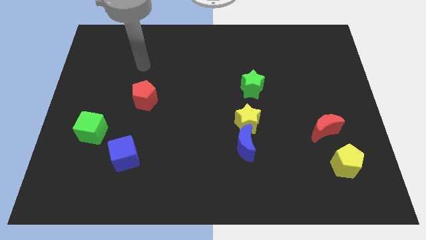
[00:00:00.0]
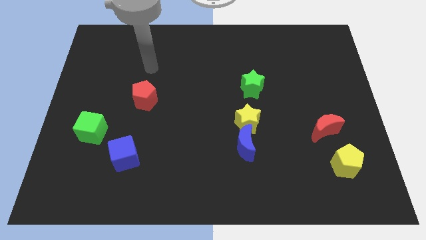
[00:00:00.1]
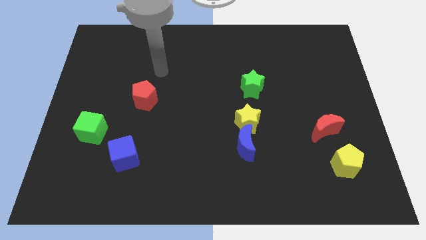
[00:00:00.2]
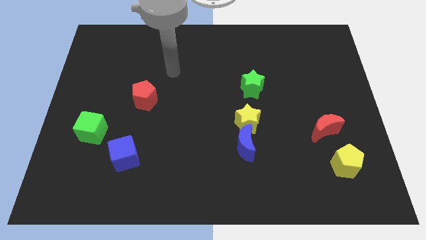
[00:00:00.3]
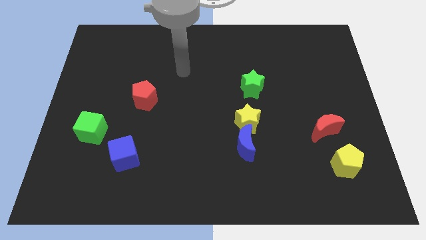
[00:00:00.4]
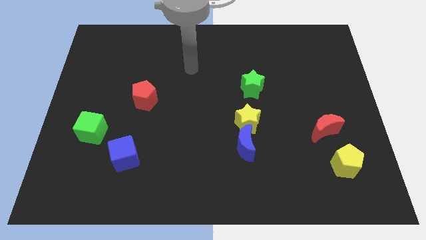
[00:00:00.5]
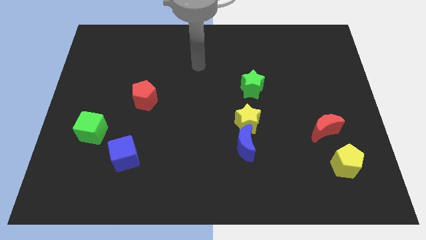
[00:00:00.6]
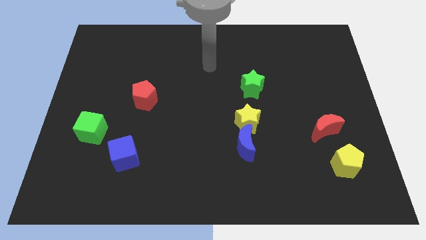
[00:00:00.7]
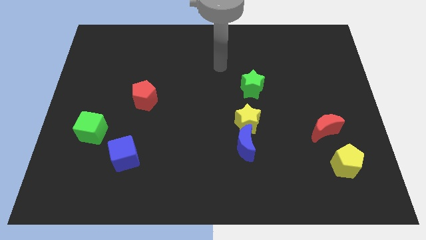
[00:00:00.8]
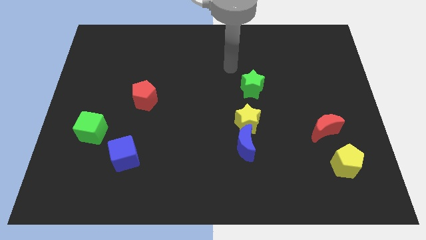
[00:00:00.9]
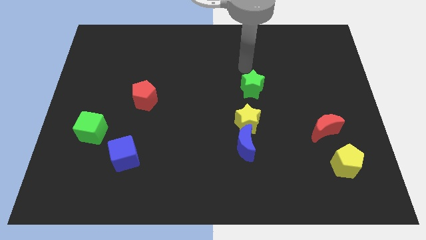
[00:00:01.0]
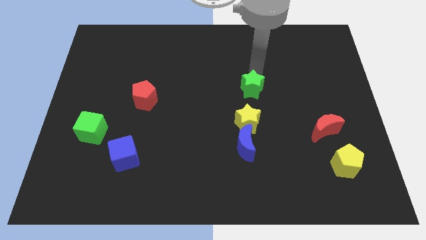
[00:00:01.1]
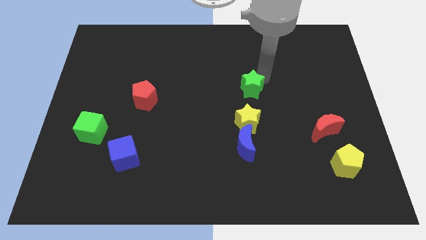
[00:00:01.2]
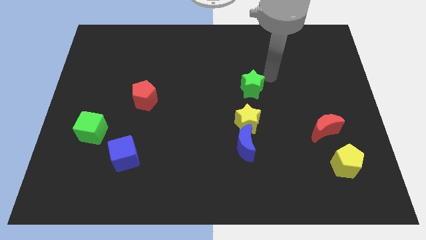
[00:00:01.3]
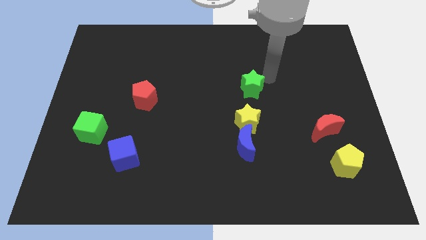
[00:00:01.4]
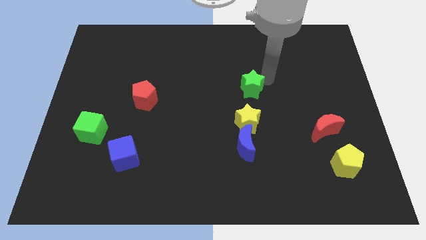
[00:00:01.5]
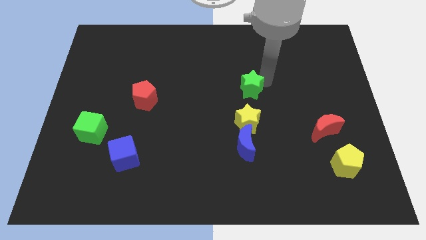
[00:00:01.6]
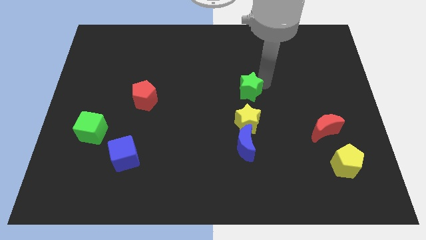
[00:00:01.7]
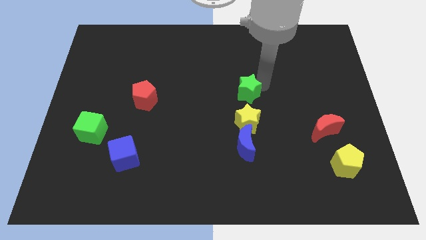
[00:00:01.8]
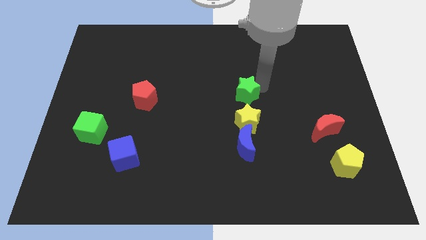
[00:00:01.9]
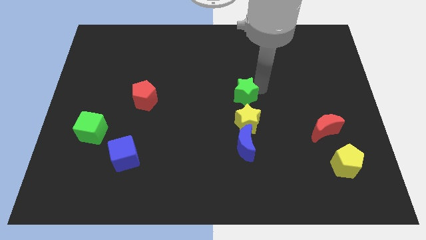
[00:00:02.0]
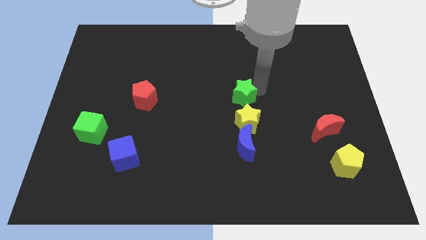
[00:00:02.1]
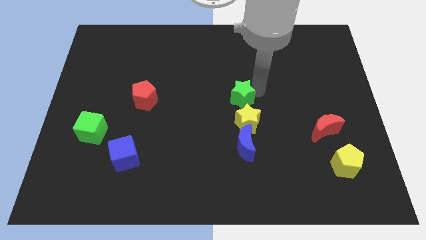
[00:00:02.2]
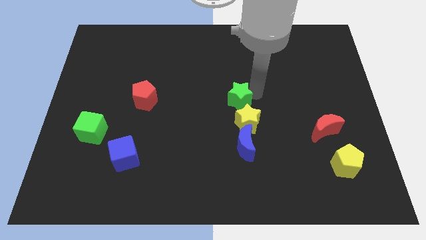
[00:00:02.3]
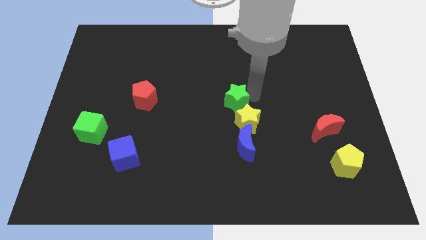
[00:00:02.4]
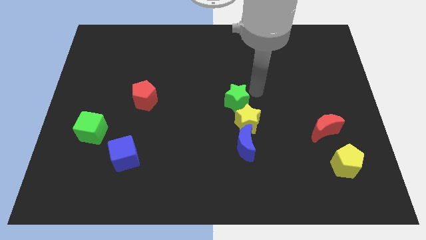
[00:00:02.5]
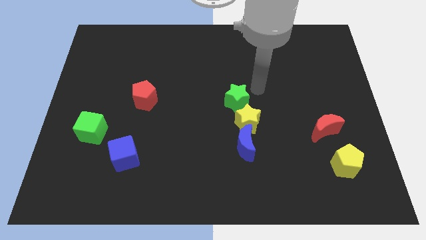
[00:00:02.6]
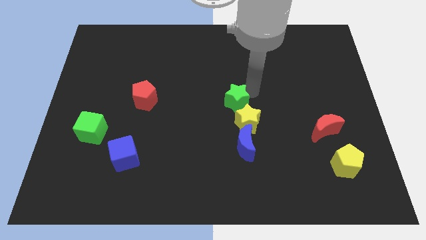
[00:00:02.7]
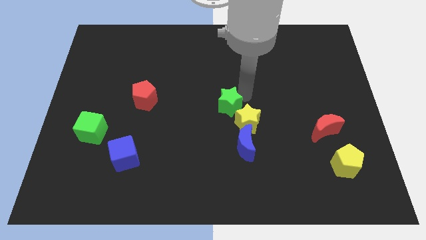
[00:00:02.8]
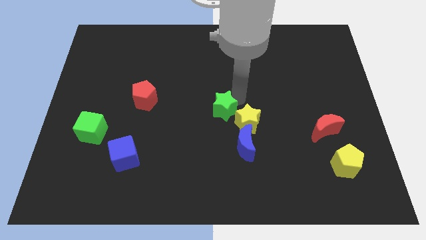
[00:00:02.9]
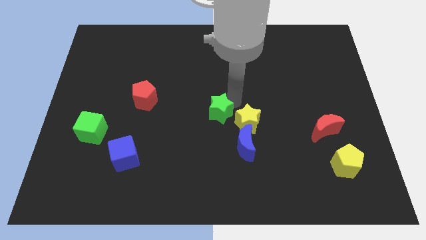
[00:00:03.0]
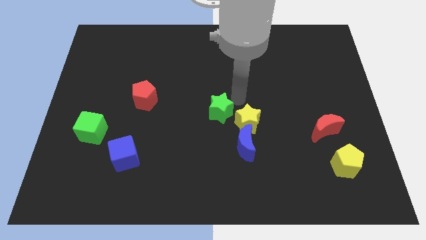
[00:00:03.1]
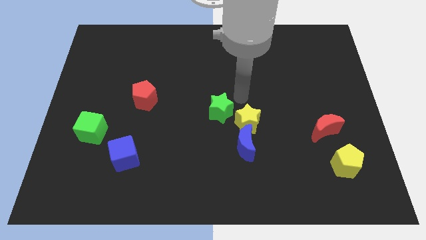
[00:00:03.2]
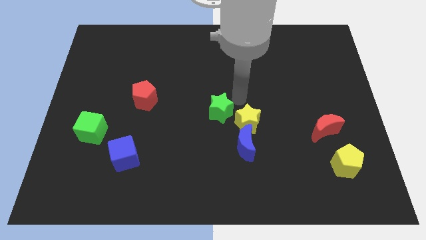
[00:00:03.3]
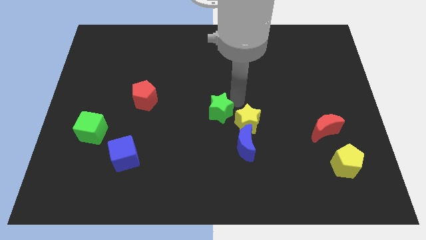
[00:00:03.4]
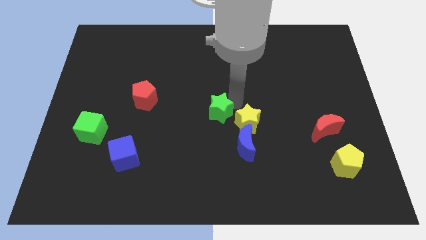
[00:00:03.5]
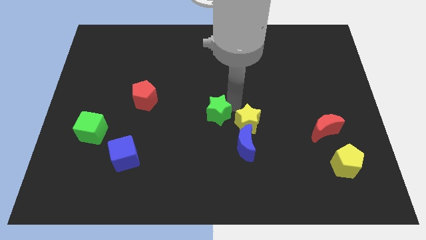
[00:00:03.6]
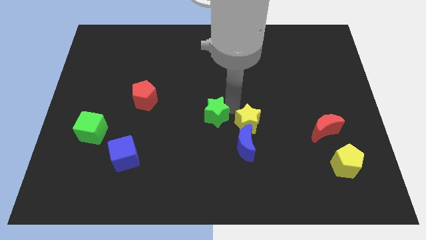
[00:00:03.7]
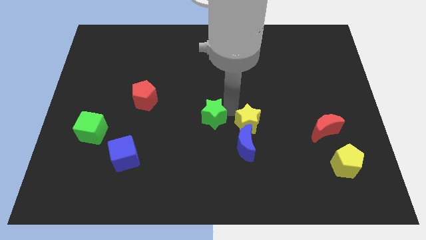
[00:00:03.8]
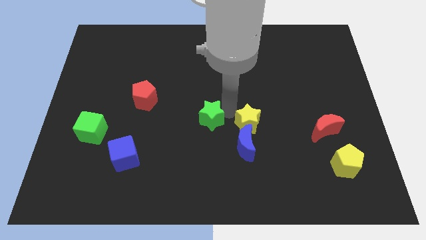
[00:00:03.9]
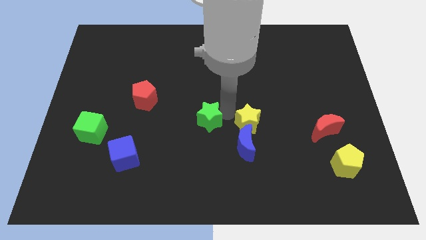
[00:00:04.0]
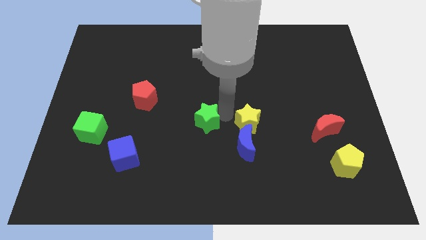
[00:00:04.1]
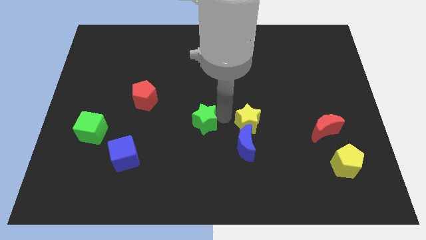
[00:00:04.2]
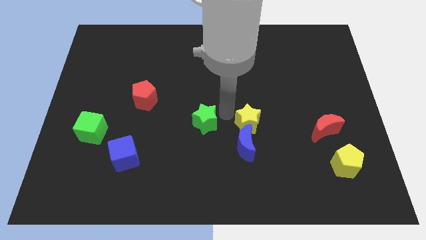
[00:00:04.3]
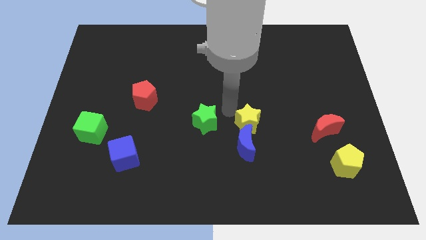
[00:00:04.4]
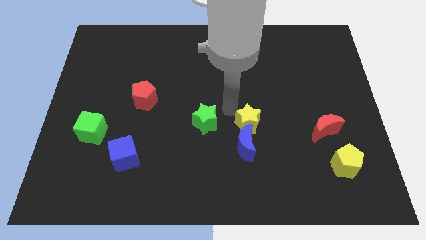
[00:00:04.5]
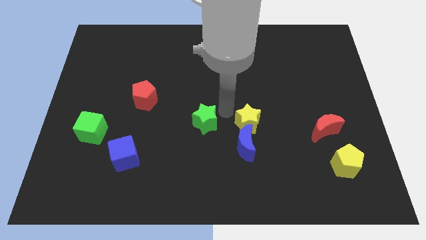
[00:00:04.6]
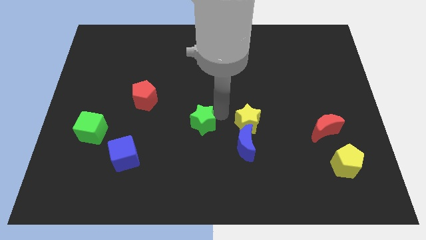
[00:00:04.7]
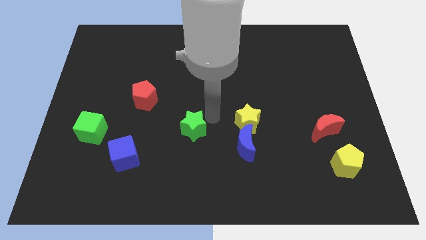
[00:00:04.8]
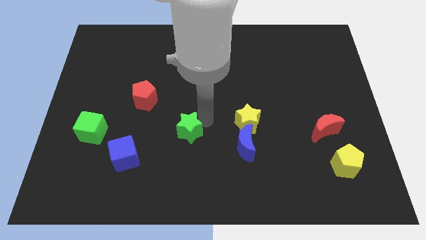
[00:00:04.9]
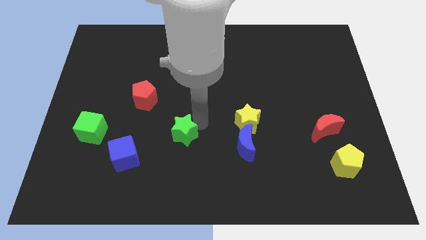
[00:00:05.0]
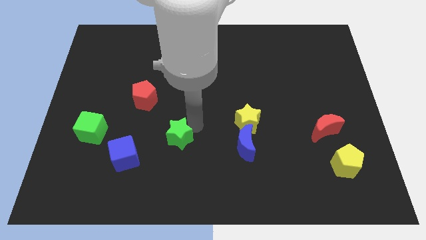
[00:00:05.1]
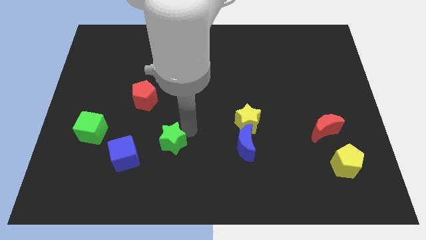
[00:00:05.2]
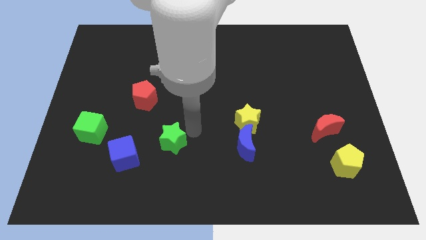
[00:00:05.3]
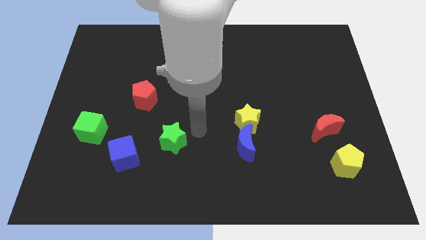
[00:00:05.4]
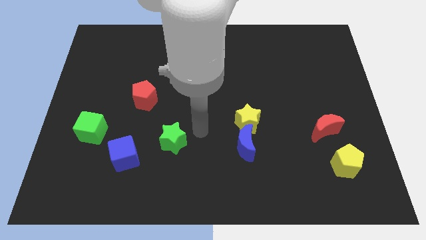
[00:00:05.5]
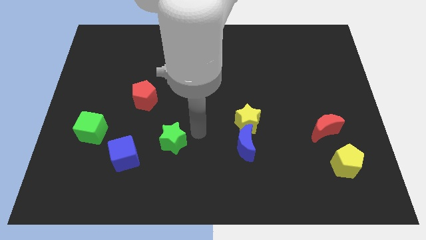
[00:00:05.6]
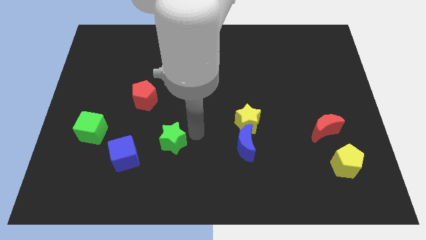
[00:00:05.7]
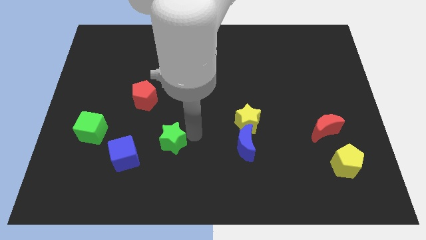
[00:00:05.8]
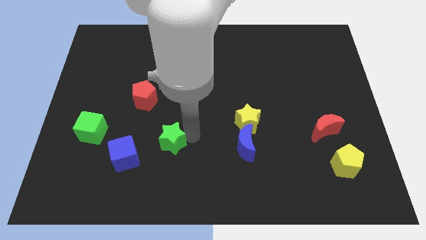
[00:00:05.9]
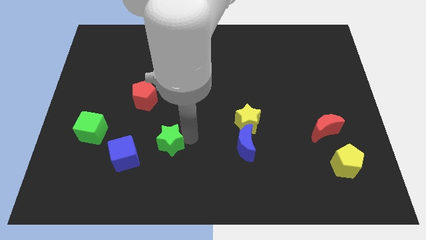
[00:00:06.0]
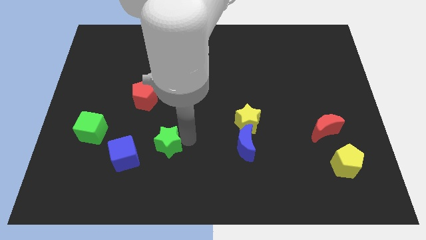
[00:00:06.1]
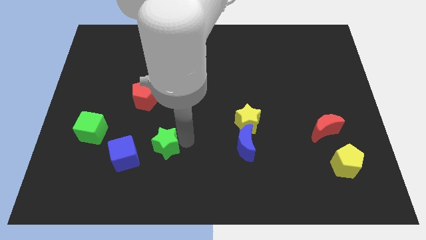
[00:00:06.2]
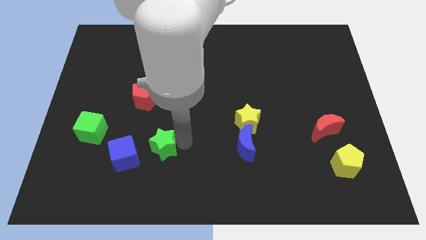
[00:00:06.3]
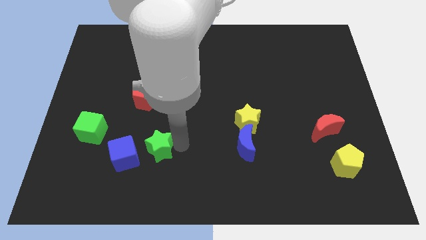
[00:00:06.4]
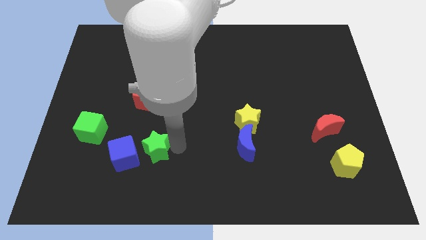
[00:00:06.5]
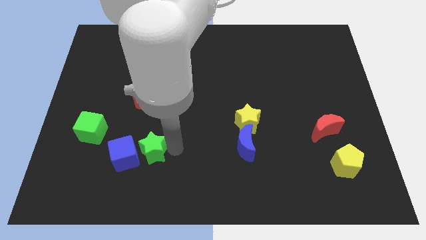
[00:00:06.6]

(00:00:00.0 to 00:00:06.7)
slide the green star to the blue cube

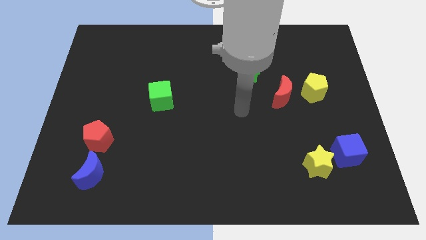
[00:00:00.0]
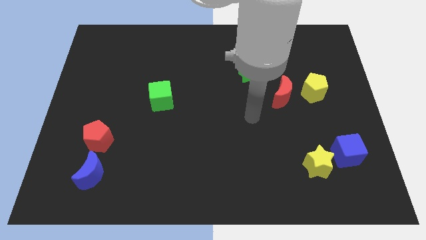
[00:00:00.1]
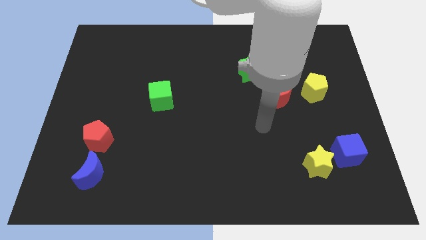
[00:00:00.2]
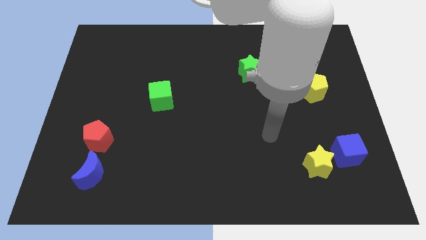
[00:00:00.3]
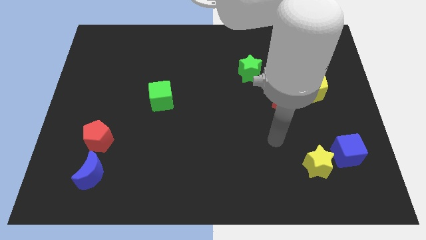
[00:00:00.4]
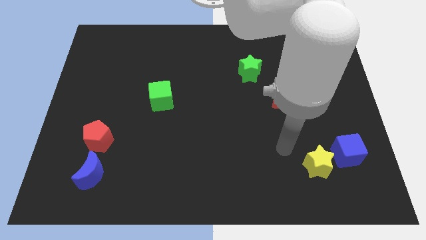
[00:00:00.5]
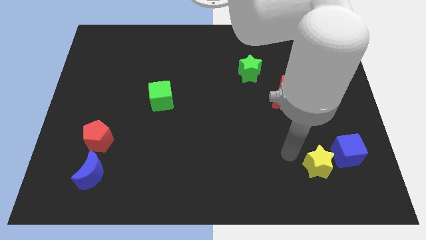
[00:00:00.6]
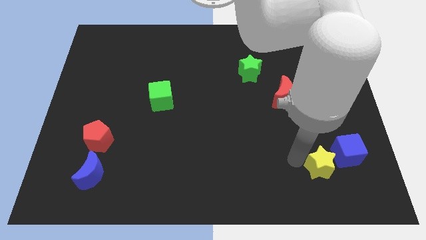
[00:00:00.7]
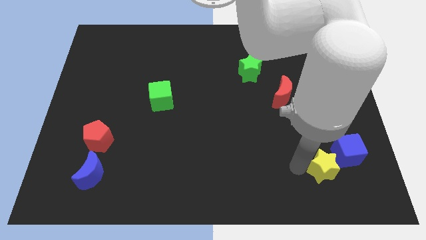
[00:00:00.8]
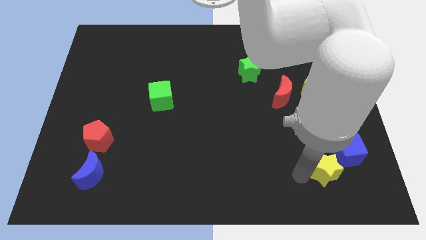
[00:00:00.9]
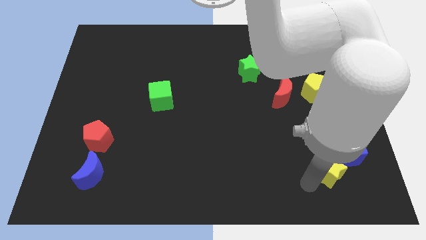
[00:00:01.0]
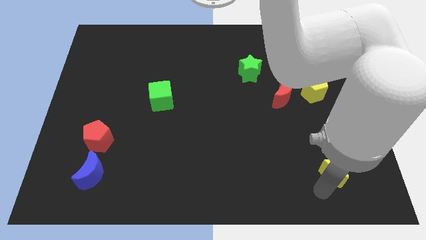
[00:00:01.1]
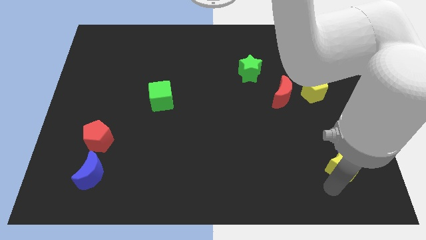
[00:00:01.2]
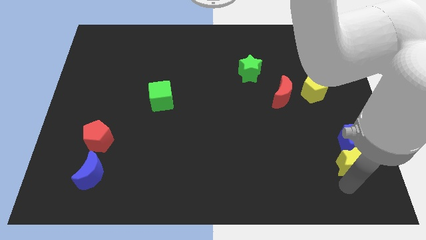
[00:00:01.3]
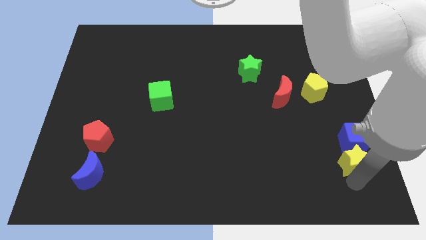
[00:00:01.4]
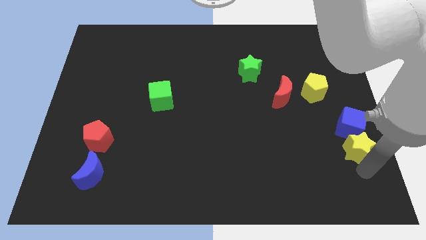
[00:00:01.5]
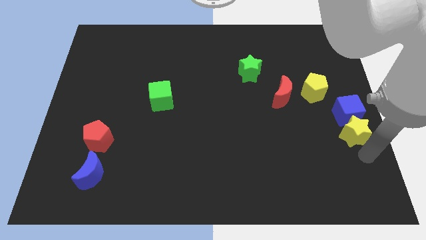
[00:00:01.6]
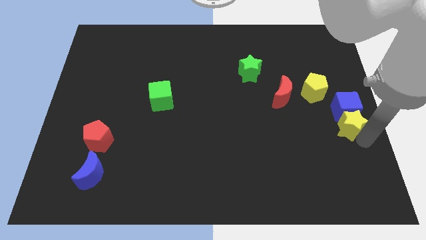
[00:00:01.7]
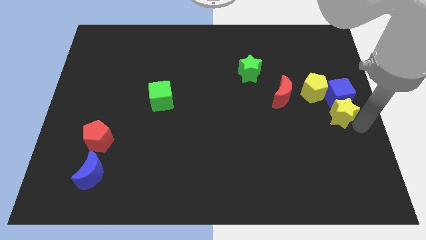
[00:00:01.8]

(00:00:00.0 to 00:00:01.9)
slide the blue cube close to the yellow pentagon

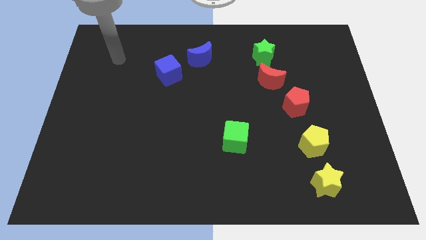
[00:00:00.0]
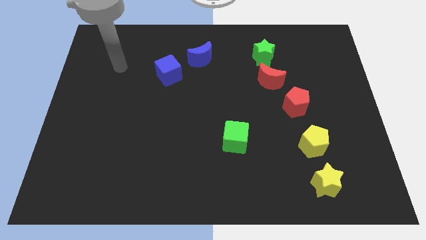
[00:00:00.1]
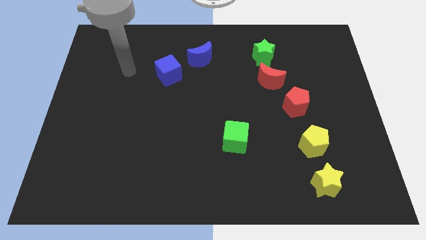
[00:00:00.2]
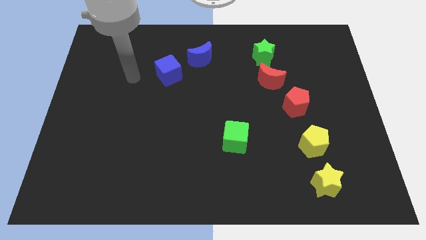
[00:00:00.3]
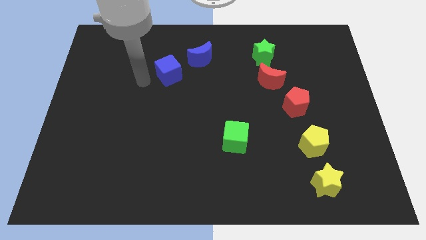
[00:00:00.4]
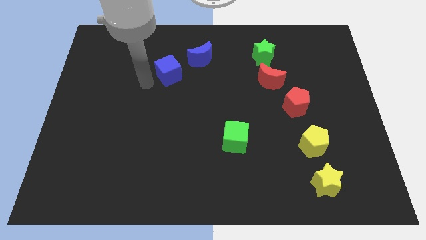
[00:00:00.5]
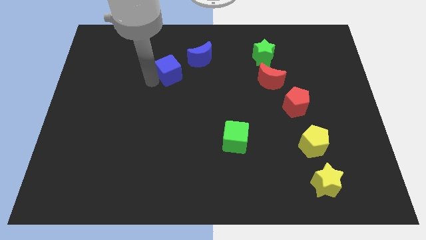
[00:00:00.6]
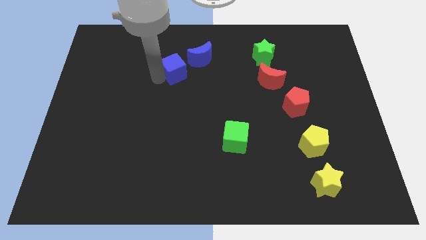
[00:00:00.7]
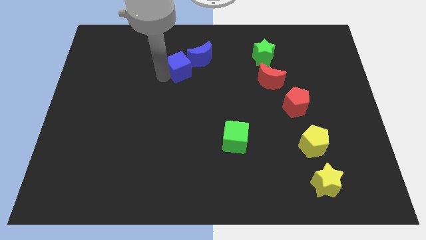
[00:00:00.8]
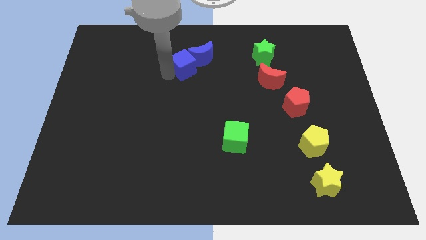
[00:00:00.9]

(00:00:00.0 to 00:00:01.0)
move the blue cube close to the blue moon
